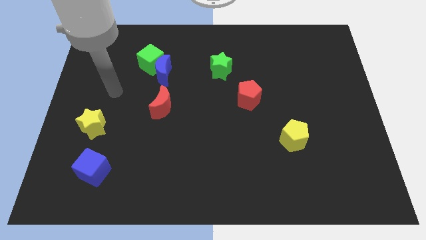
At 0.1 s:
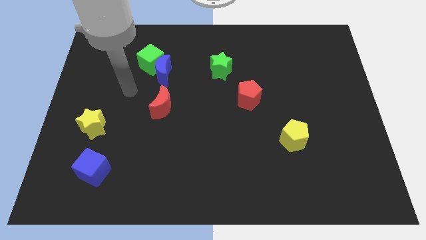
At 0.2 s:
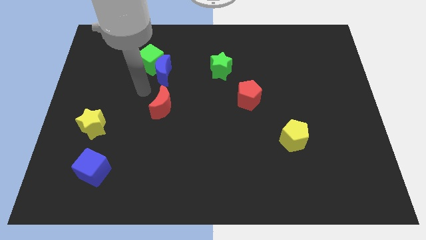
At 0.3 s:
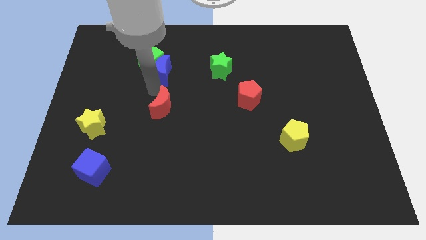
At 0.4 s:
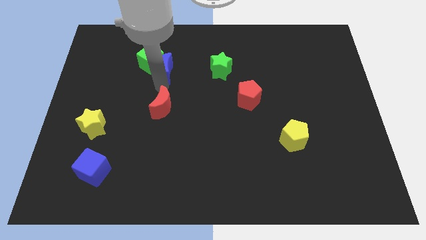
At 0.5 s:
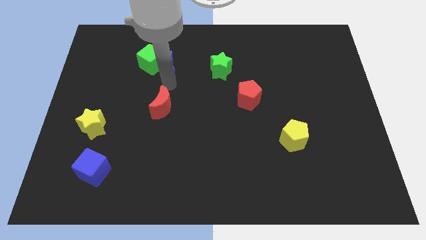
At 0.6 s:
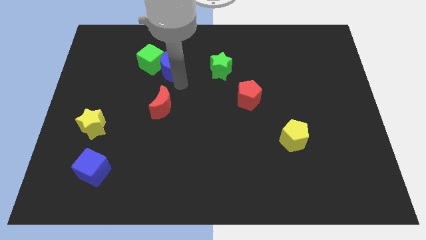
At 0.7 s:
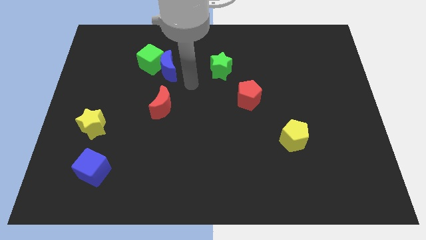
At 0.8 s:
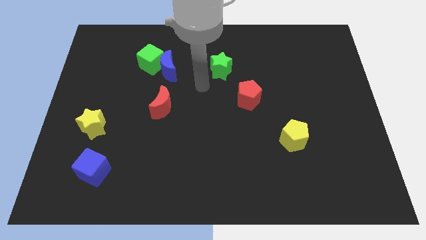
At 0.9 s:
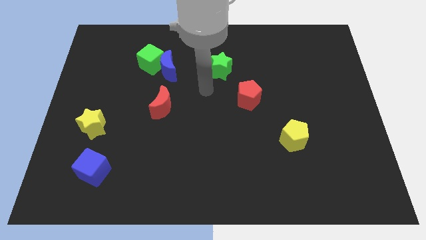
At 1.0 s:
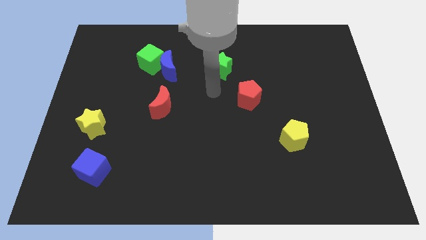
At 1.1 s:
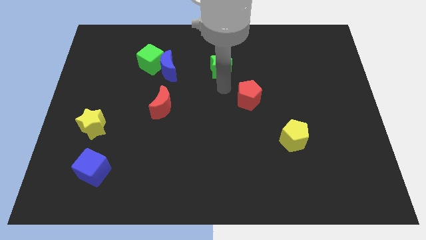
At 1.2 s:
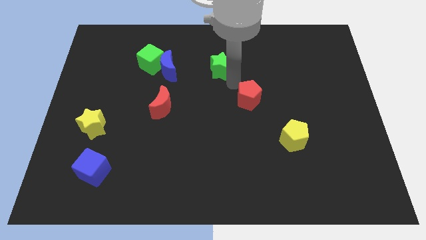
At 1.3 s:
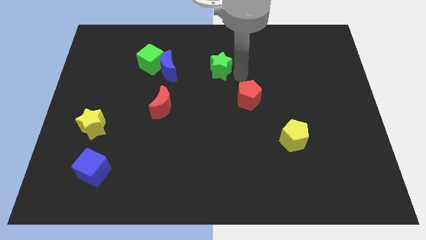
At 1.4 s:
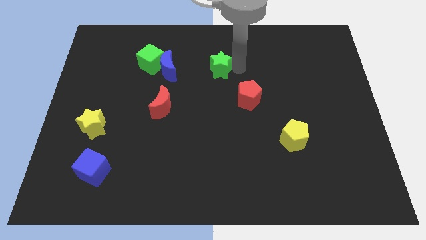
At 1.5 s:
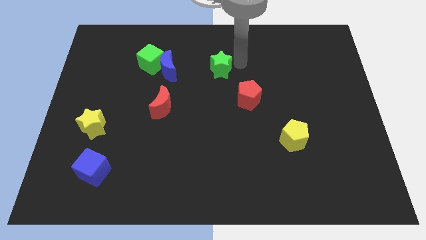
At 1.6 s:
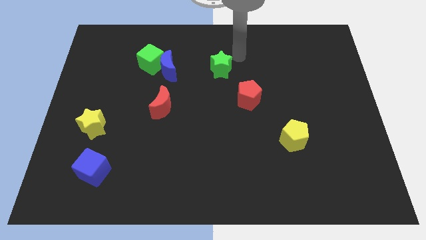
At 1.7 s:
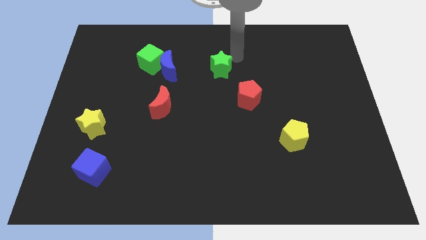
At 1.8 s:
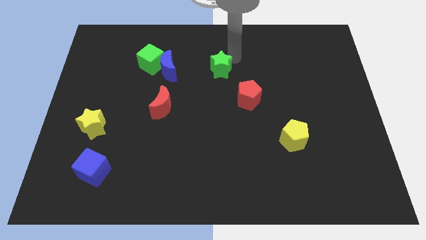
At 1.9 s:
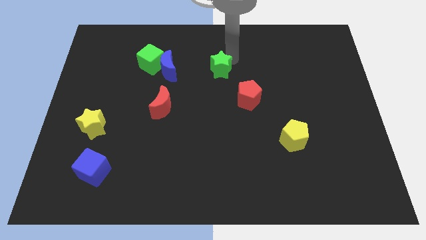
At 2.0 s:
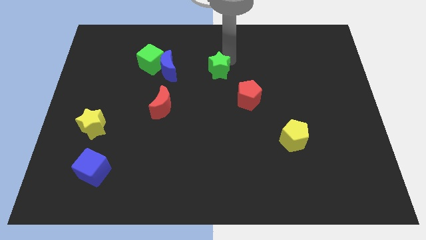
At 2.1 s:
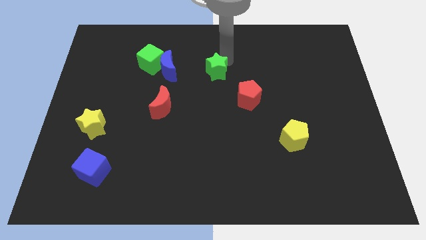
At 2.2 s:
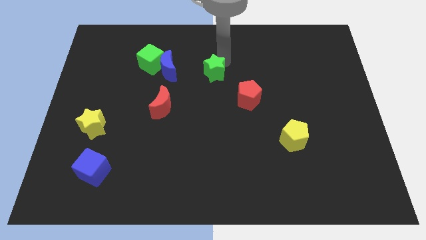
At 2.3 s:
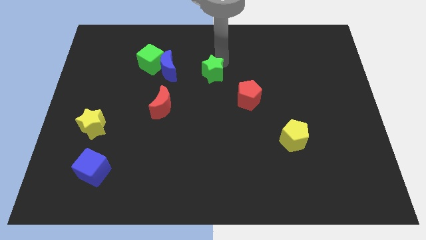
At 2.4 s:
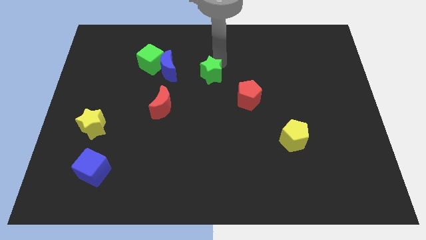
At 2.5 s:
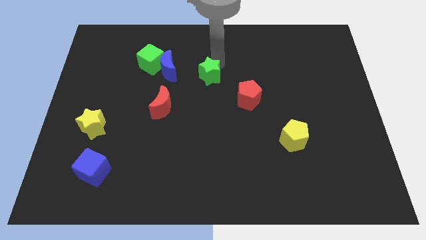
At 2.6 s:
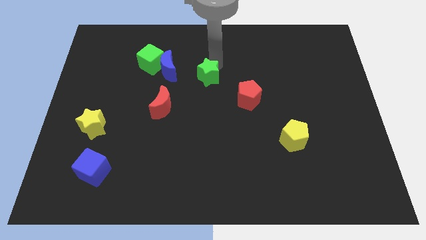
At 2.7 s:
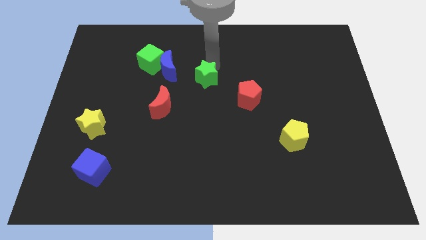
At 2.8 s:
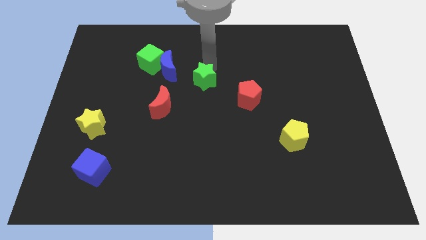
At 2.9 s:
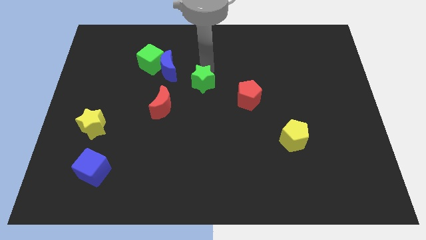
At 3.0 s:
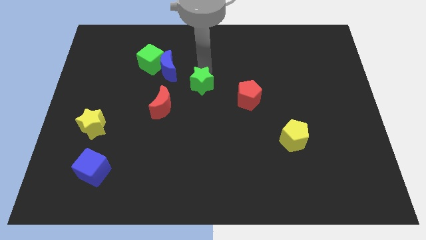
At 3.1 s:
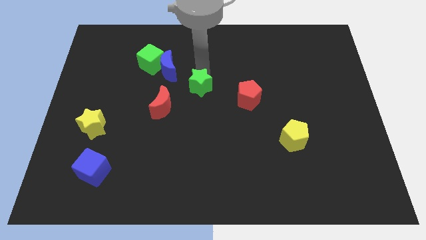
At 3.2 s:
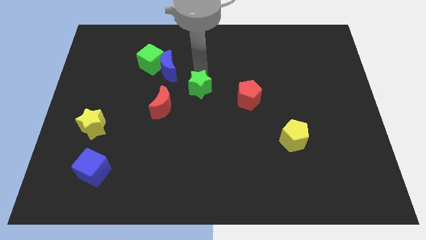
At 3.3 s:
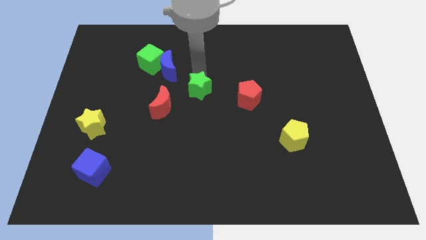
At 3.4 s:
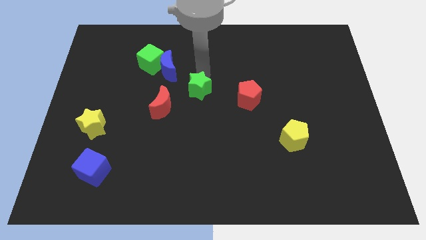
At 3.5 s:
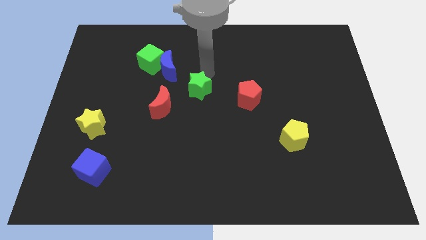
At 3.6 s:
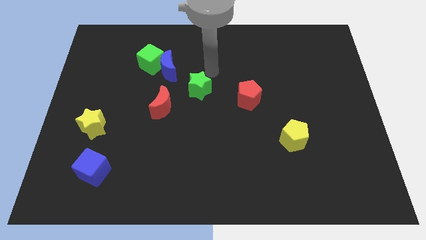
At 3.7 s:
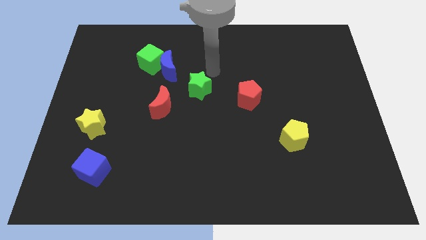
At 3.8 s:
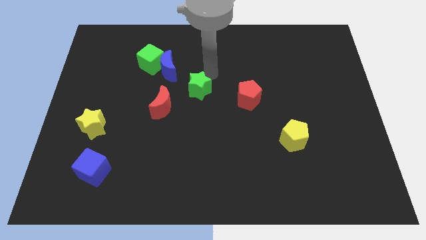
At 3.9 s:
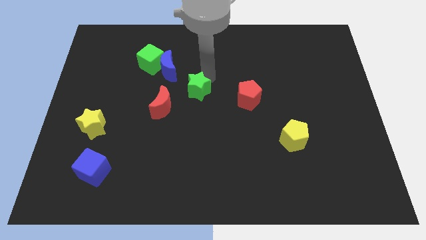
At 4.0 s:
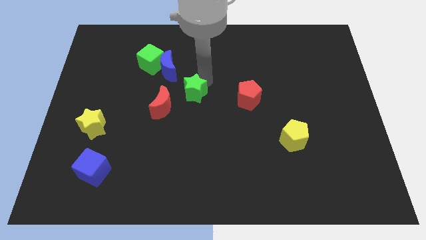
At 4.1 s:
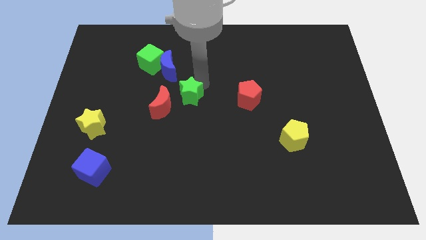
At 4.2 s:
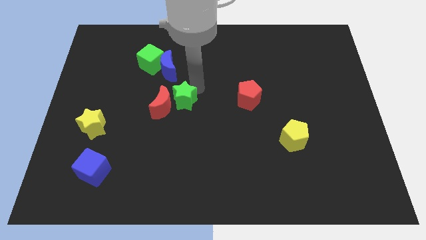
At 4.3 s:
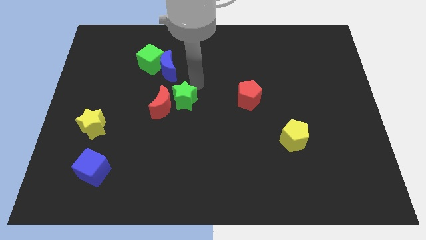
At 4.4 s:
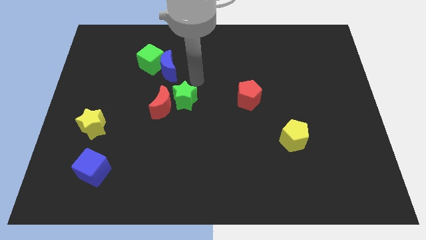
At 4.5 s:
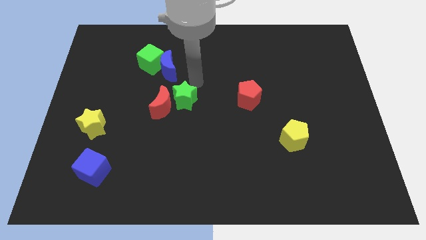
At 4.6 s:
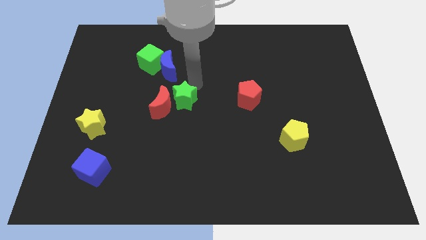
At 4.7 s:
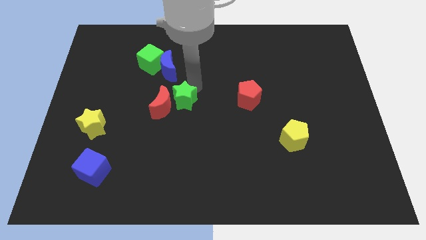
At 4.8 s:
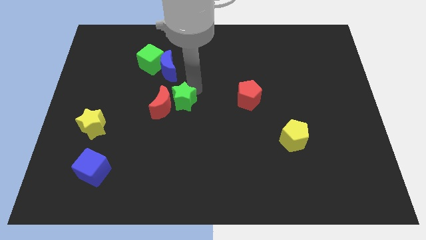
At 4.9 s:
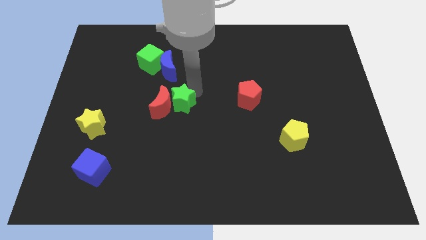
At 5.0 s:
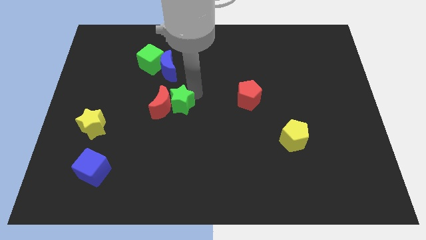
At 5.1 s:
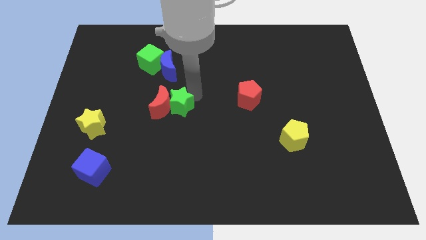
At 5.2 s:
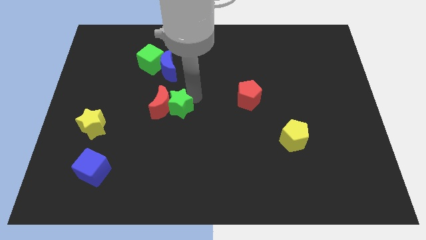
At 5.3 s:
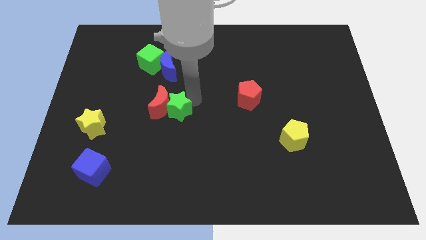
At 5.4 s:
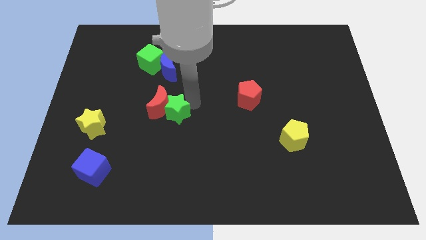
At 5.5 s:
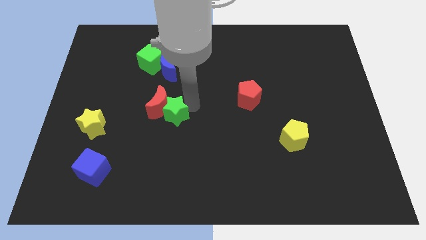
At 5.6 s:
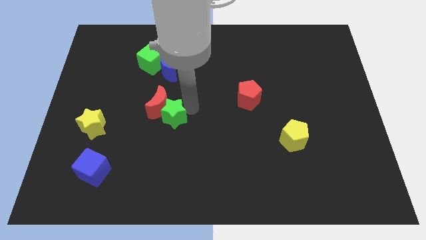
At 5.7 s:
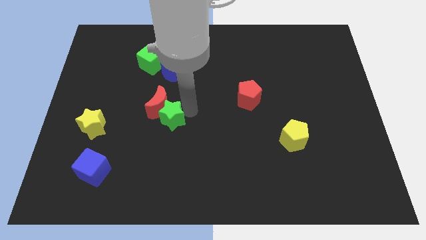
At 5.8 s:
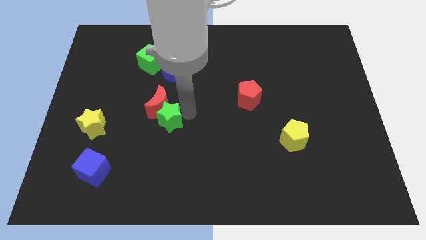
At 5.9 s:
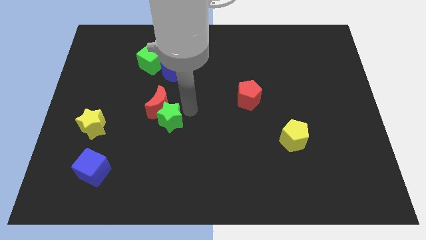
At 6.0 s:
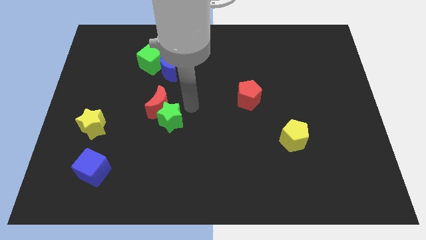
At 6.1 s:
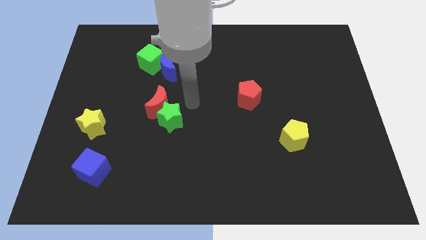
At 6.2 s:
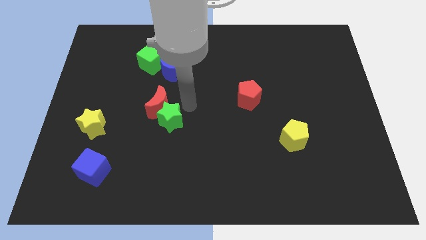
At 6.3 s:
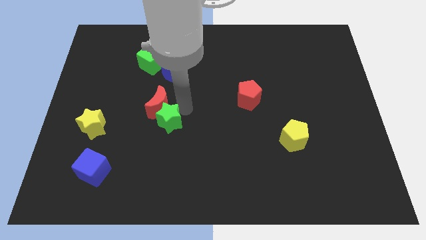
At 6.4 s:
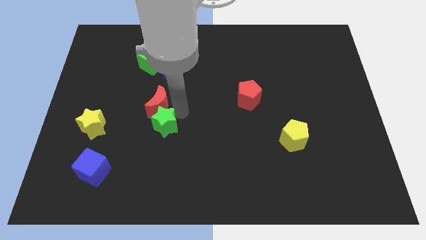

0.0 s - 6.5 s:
move the green star down and left

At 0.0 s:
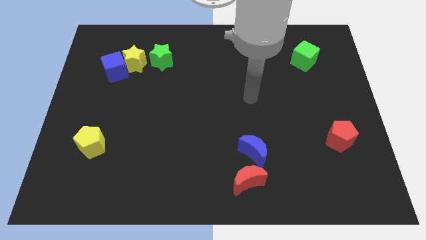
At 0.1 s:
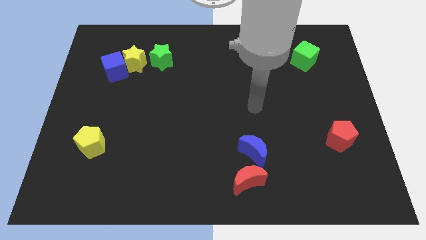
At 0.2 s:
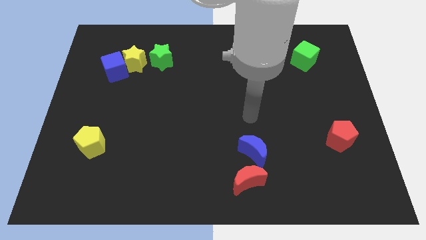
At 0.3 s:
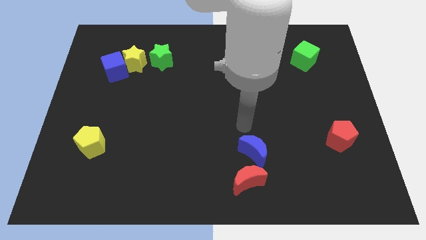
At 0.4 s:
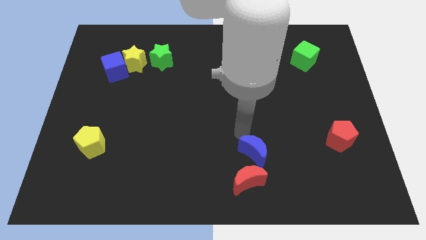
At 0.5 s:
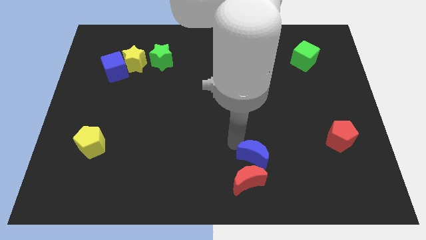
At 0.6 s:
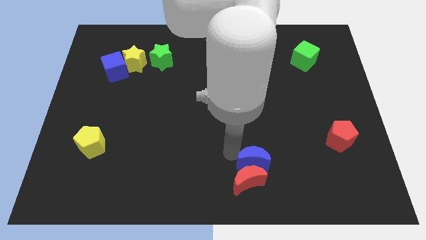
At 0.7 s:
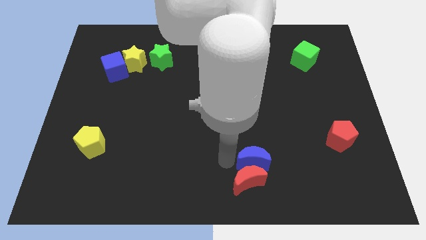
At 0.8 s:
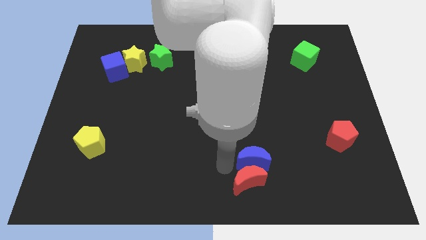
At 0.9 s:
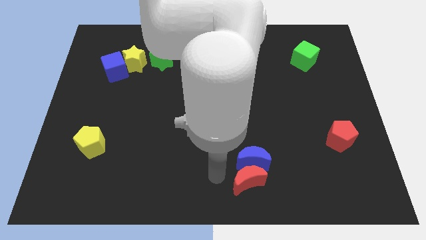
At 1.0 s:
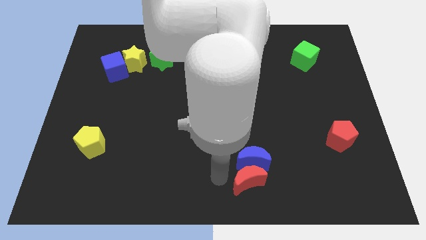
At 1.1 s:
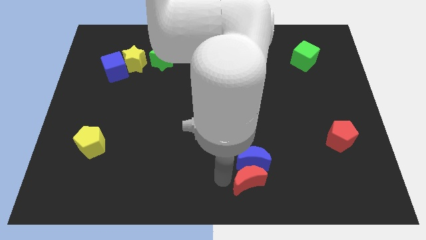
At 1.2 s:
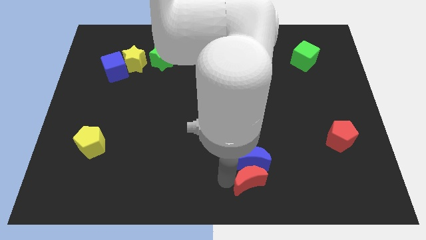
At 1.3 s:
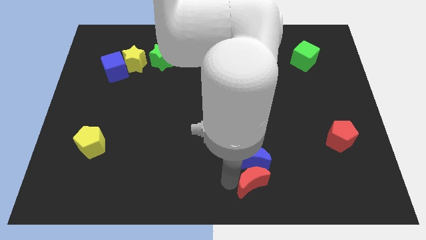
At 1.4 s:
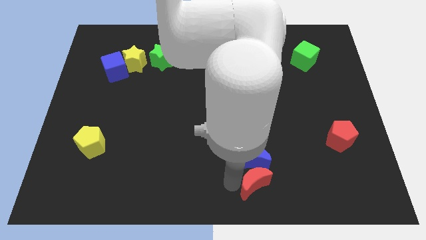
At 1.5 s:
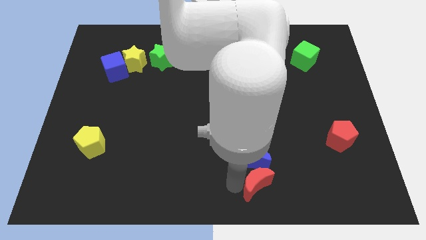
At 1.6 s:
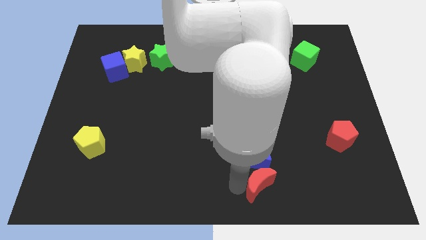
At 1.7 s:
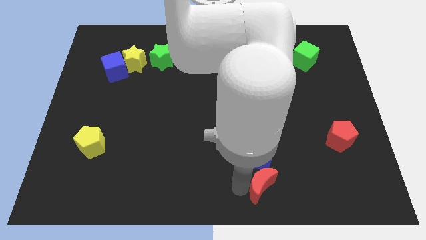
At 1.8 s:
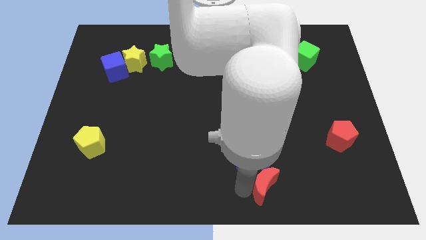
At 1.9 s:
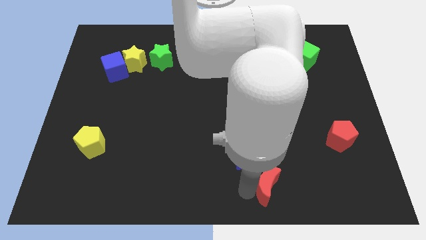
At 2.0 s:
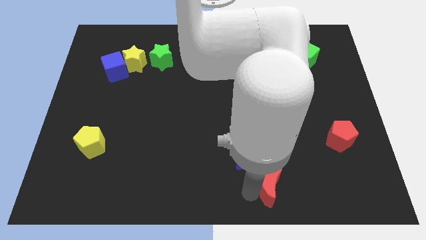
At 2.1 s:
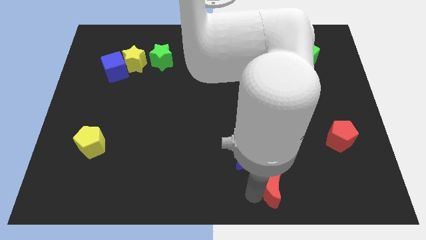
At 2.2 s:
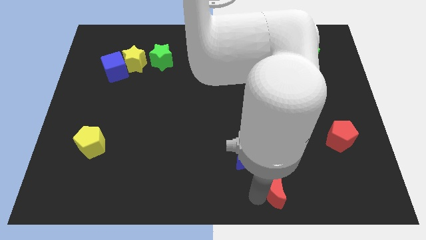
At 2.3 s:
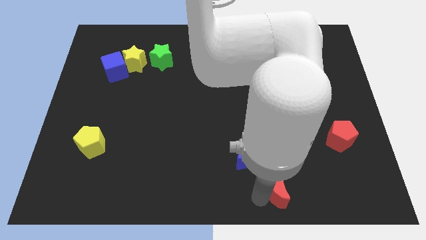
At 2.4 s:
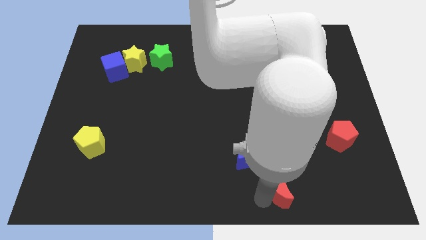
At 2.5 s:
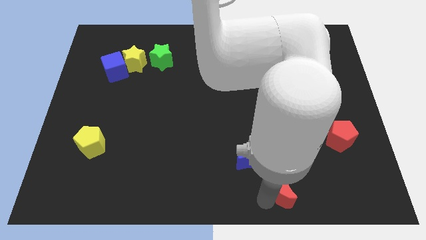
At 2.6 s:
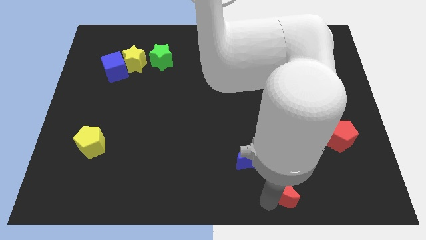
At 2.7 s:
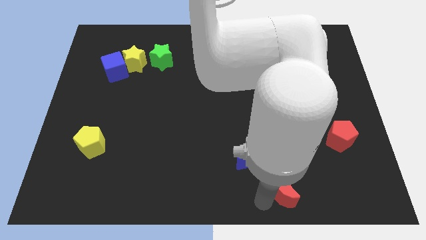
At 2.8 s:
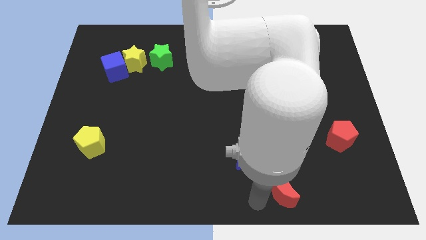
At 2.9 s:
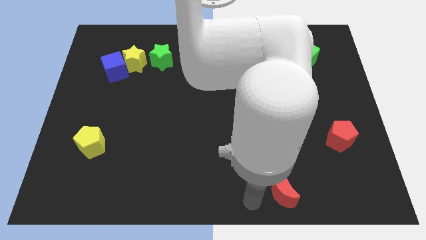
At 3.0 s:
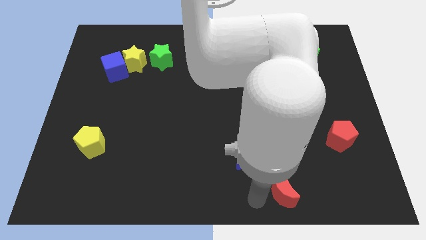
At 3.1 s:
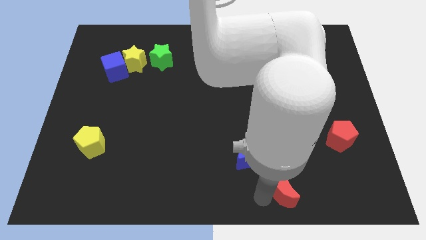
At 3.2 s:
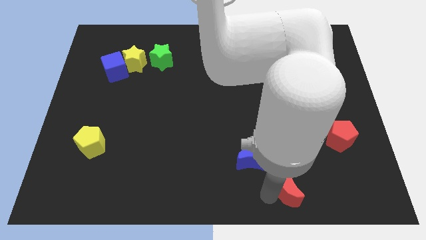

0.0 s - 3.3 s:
slightly move the red moon right
